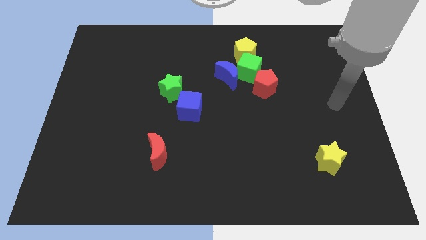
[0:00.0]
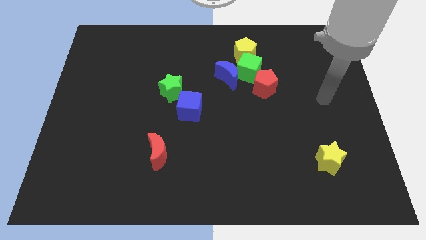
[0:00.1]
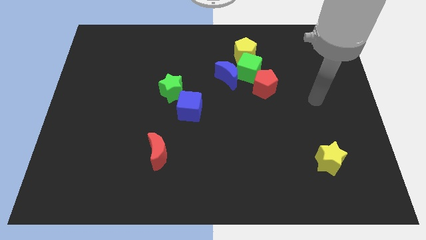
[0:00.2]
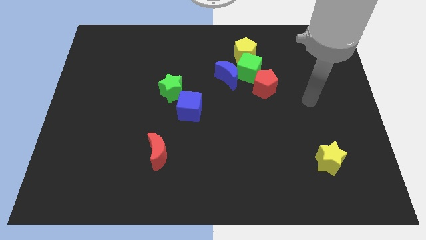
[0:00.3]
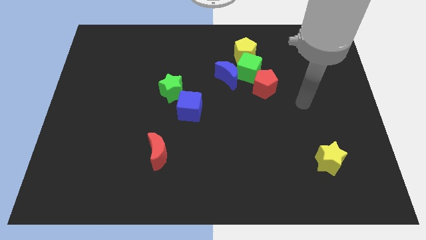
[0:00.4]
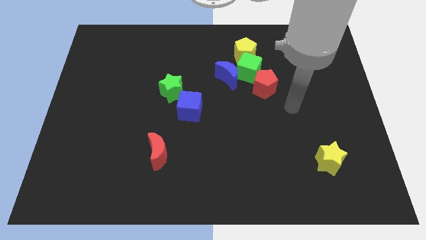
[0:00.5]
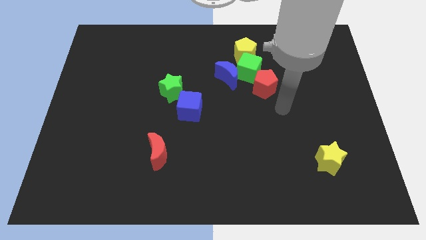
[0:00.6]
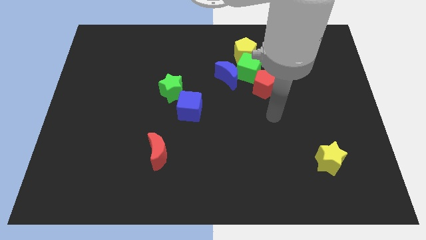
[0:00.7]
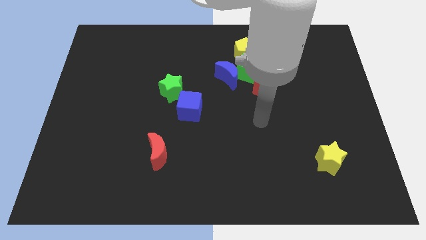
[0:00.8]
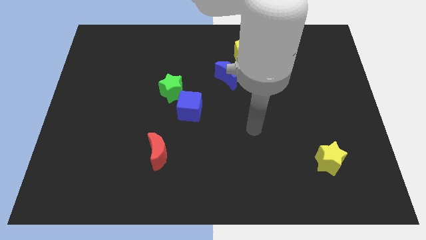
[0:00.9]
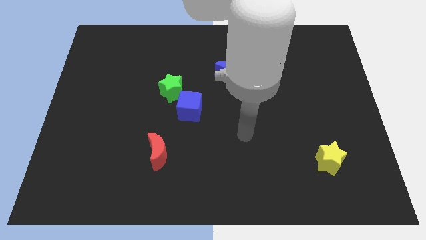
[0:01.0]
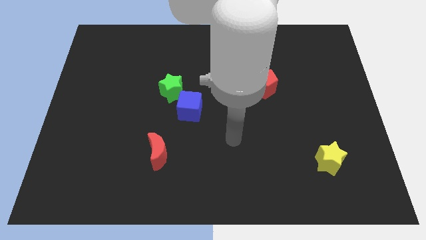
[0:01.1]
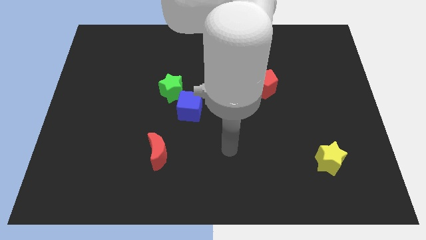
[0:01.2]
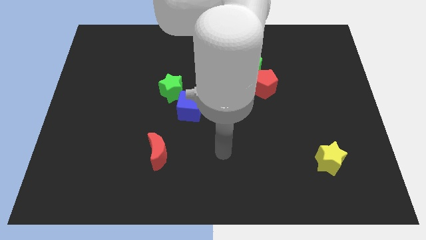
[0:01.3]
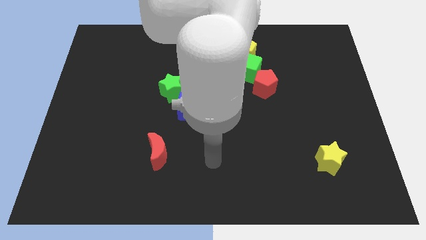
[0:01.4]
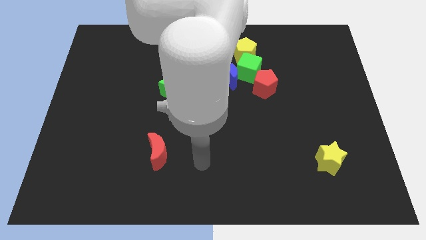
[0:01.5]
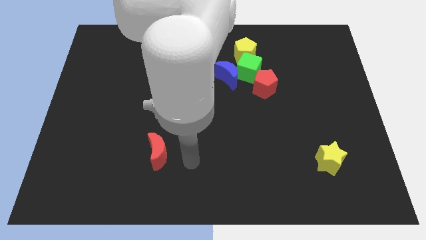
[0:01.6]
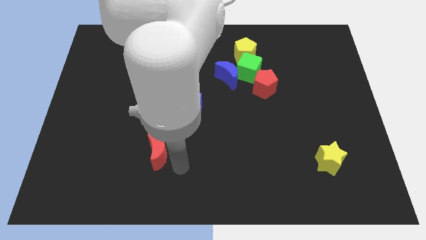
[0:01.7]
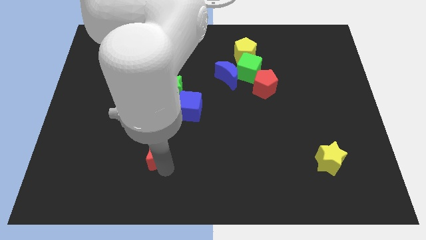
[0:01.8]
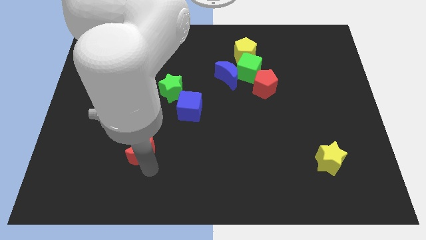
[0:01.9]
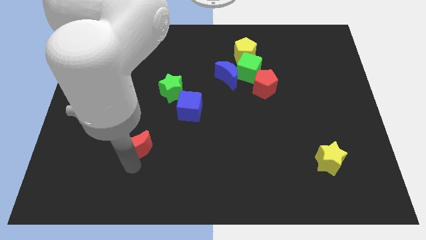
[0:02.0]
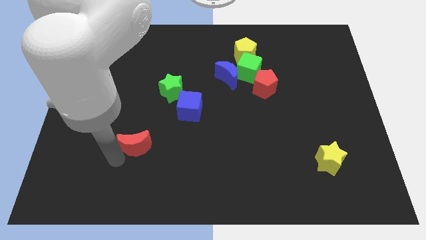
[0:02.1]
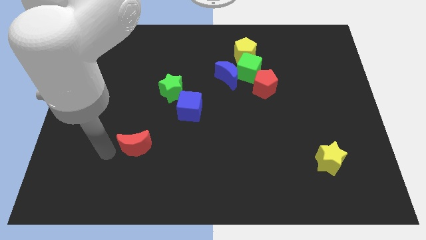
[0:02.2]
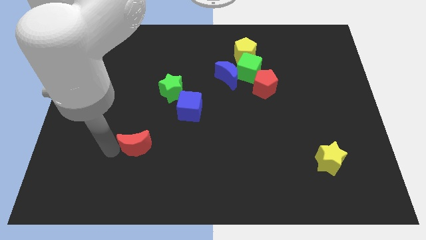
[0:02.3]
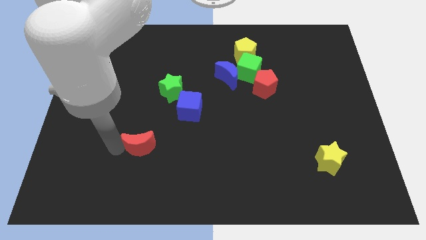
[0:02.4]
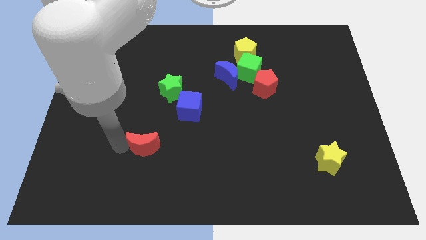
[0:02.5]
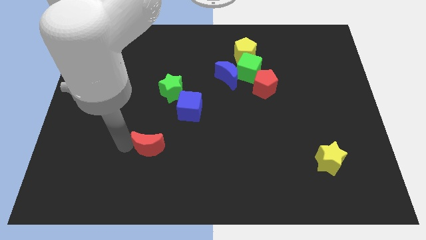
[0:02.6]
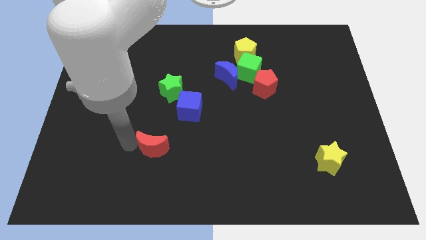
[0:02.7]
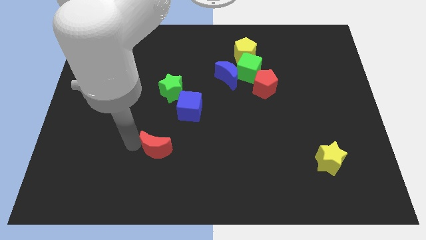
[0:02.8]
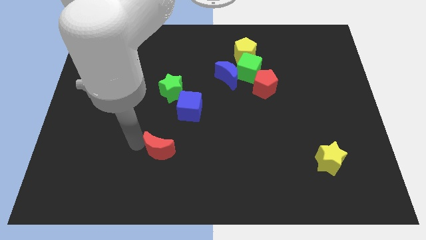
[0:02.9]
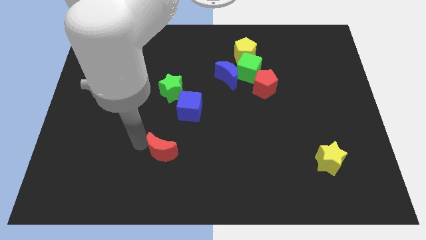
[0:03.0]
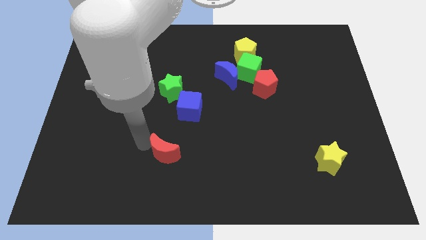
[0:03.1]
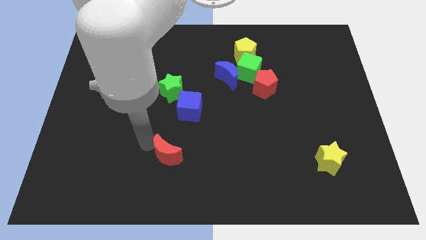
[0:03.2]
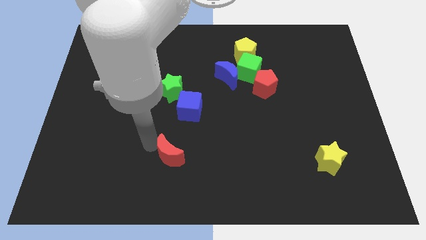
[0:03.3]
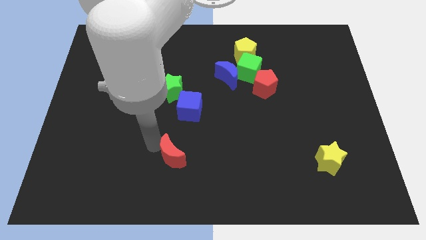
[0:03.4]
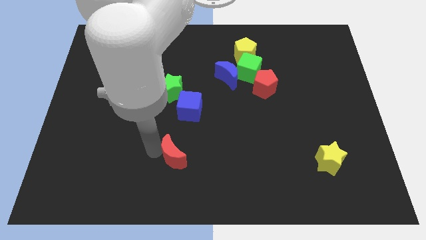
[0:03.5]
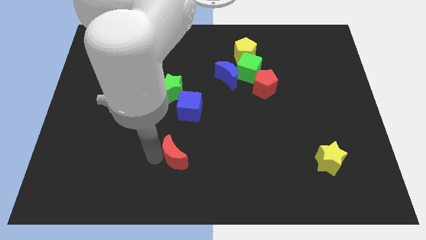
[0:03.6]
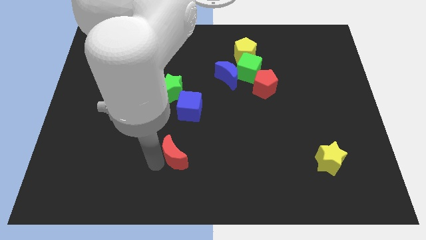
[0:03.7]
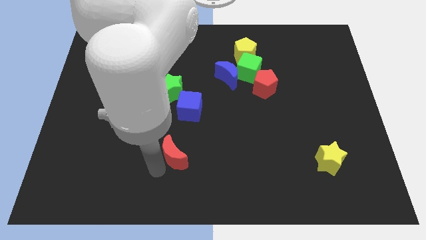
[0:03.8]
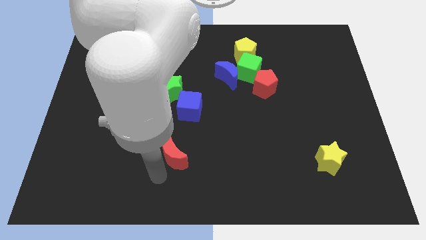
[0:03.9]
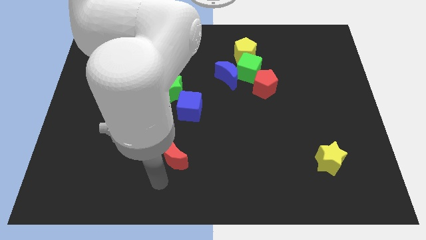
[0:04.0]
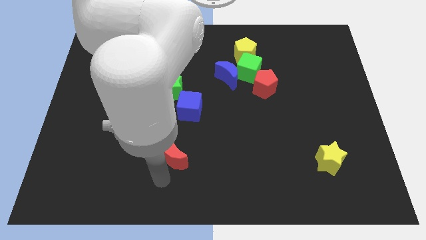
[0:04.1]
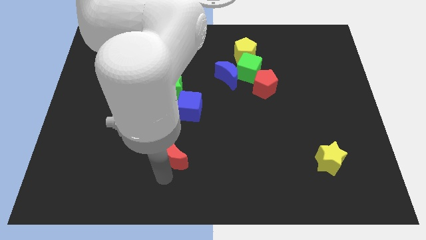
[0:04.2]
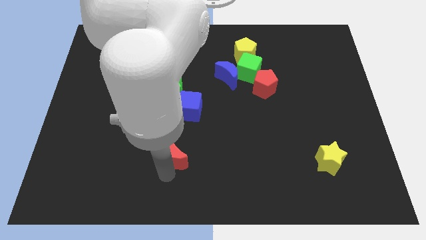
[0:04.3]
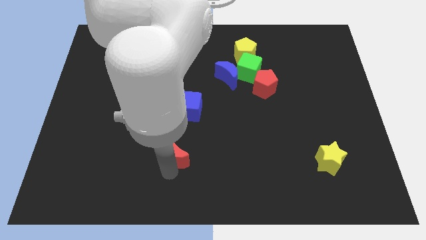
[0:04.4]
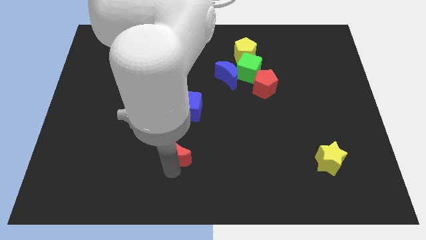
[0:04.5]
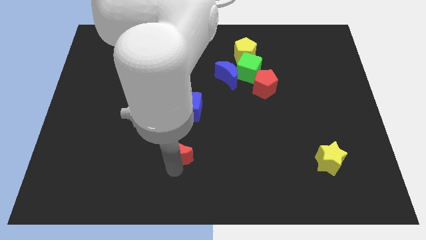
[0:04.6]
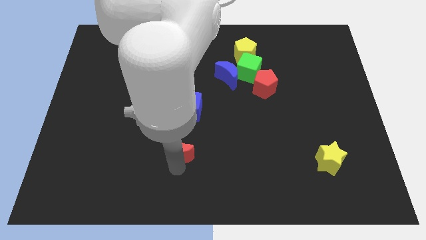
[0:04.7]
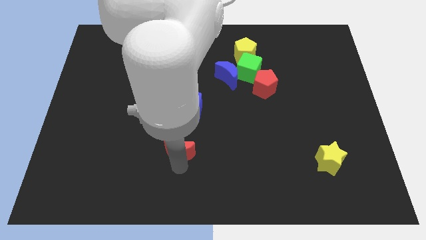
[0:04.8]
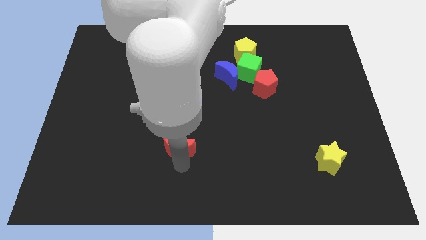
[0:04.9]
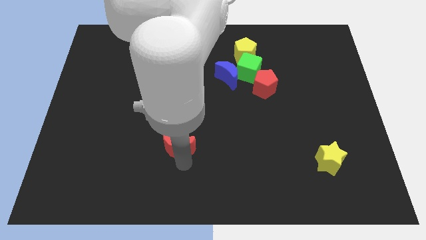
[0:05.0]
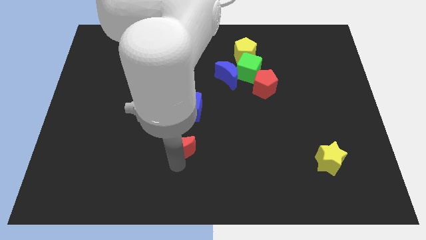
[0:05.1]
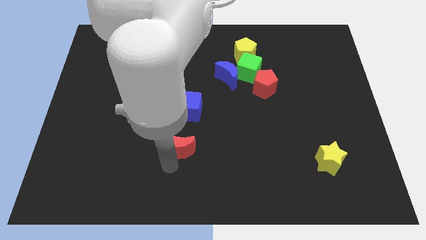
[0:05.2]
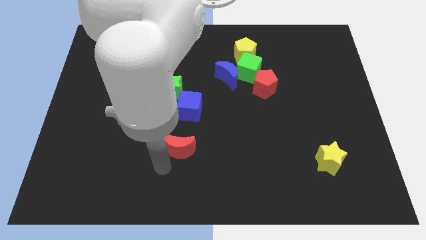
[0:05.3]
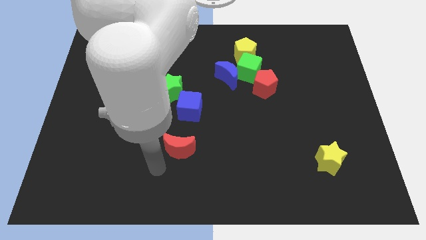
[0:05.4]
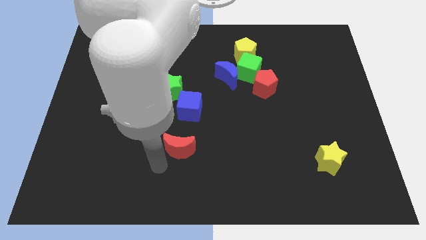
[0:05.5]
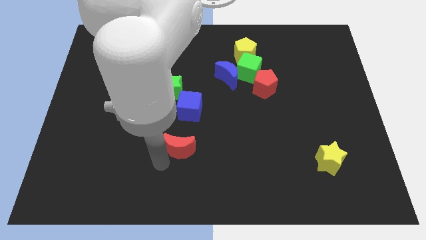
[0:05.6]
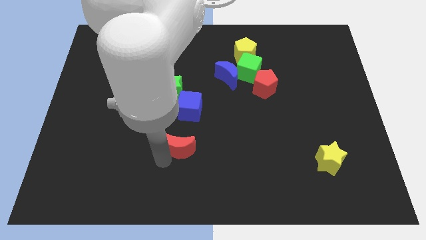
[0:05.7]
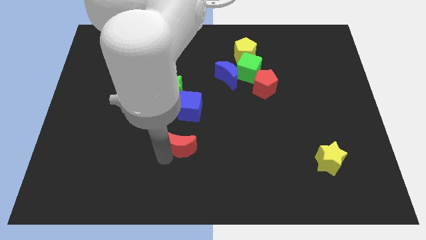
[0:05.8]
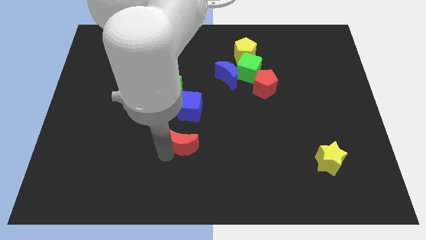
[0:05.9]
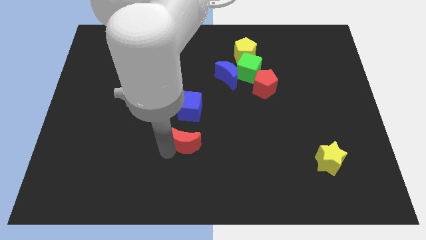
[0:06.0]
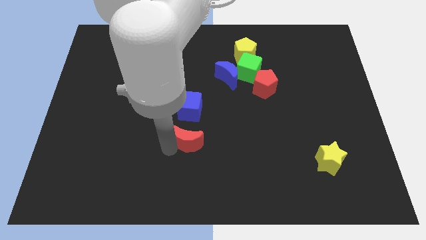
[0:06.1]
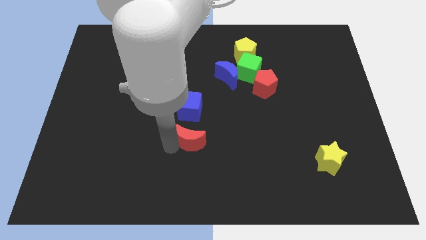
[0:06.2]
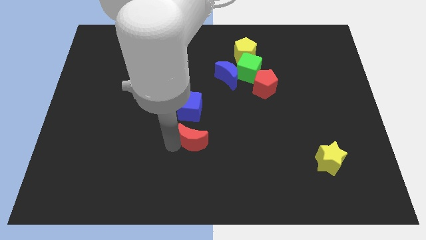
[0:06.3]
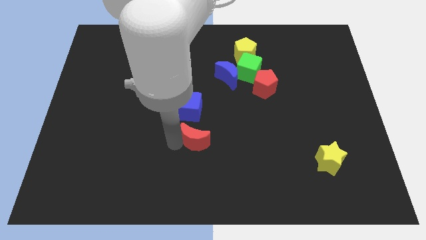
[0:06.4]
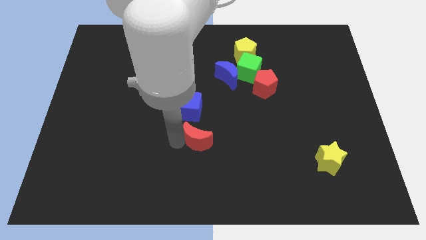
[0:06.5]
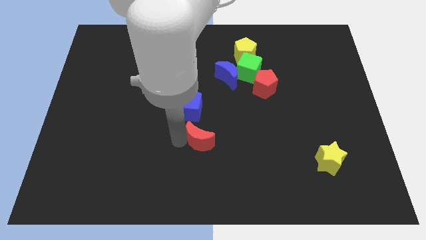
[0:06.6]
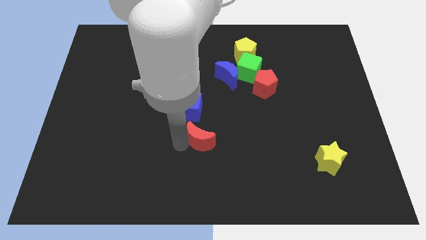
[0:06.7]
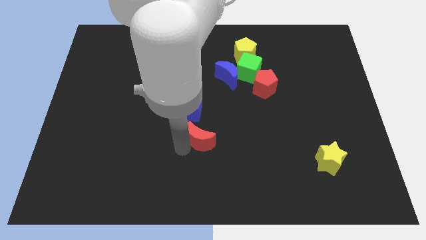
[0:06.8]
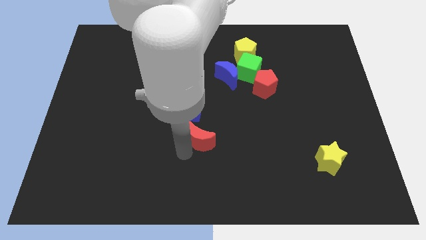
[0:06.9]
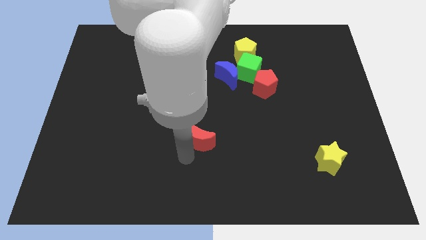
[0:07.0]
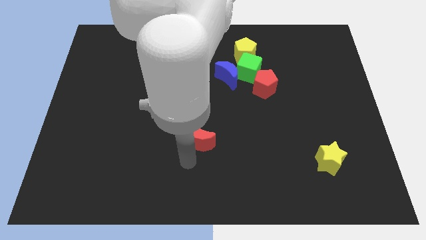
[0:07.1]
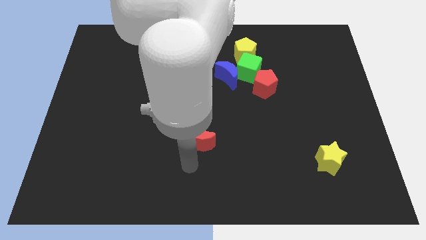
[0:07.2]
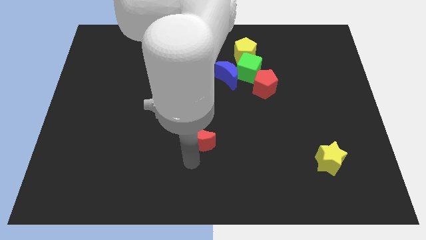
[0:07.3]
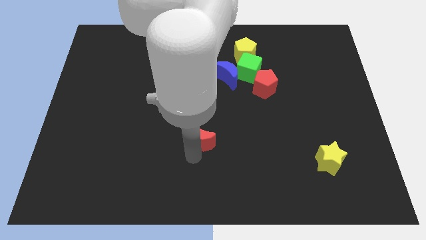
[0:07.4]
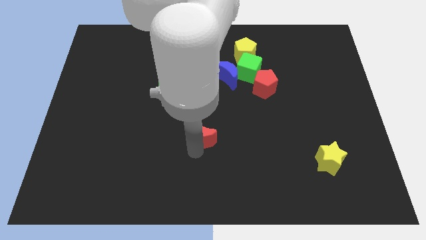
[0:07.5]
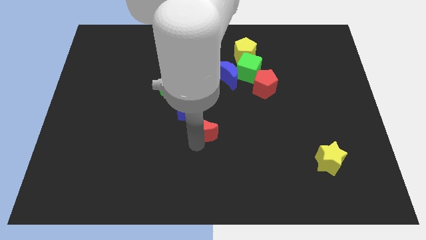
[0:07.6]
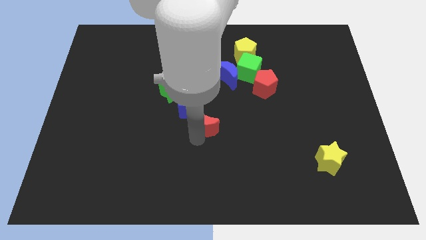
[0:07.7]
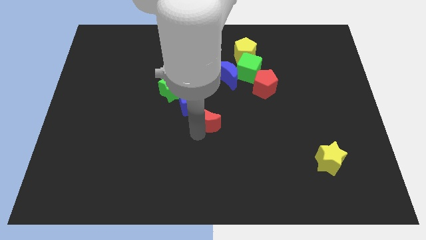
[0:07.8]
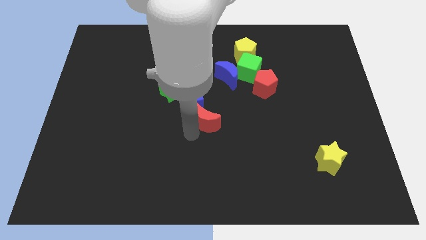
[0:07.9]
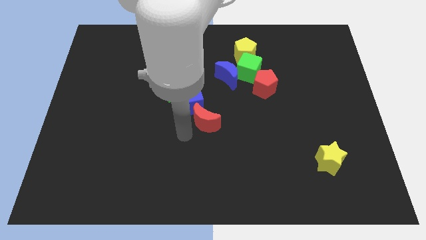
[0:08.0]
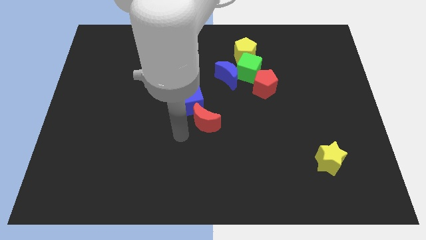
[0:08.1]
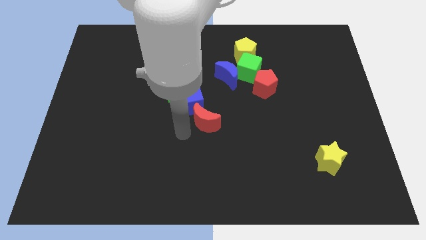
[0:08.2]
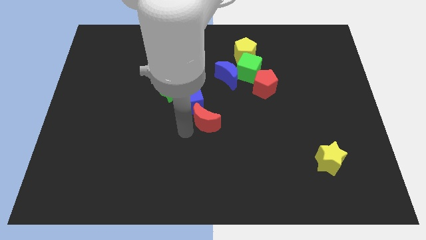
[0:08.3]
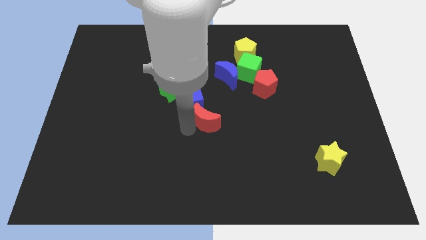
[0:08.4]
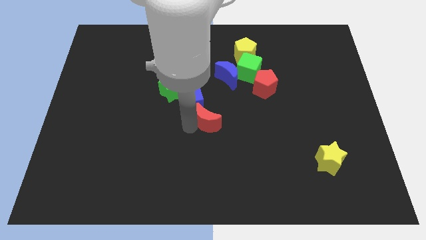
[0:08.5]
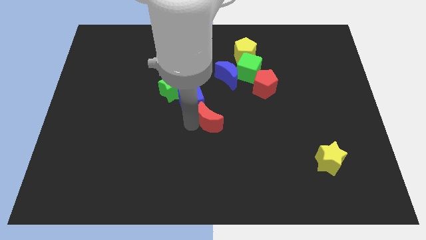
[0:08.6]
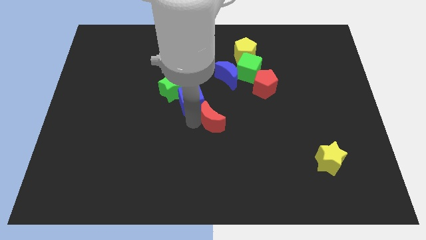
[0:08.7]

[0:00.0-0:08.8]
move the red moon to the bottom side of the blue moon
